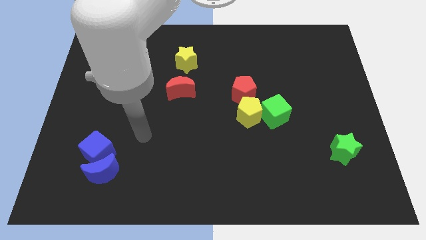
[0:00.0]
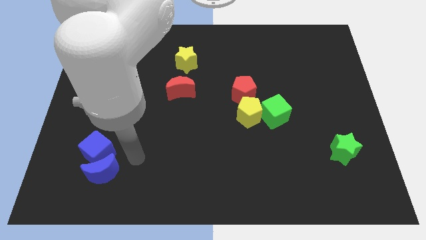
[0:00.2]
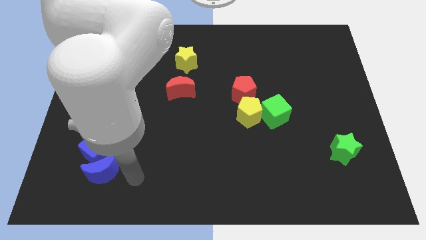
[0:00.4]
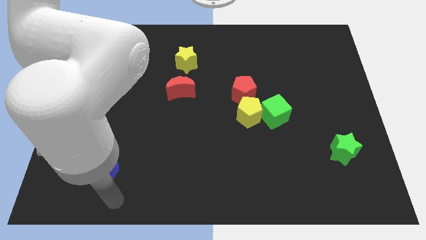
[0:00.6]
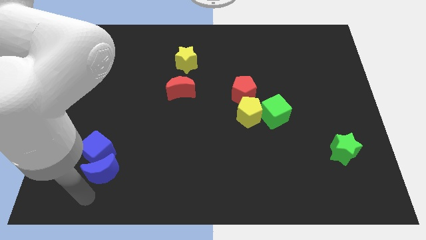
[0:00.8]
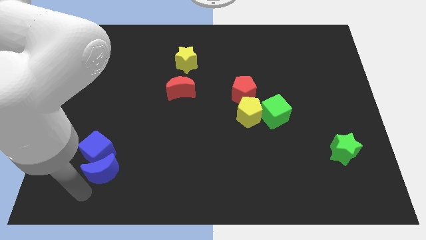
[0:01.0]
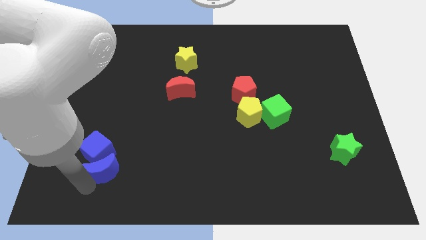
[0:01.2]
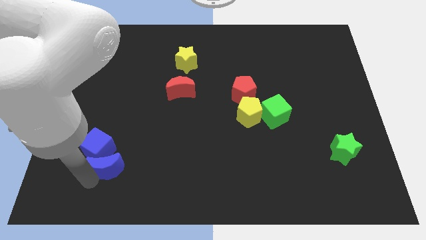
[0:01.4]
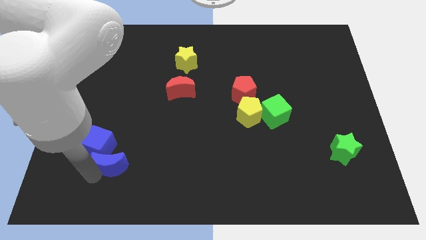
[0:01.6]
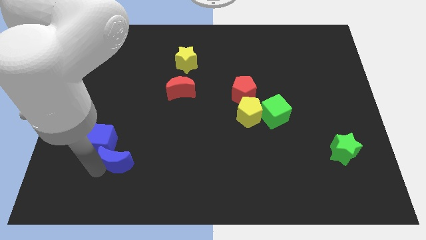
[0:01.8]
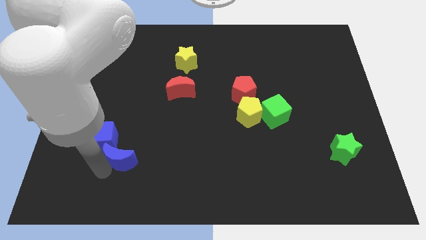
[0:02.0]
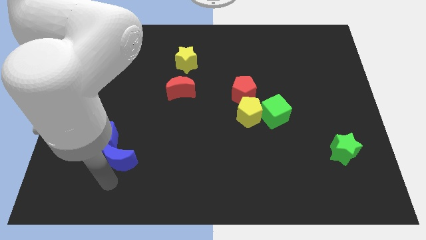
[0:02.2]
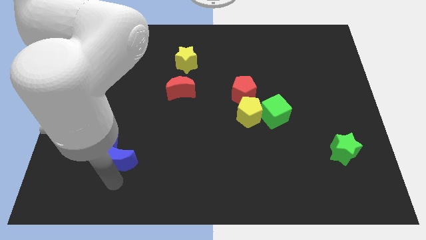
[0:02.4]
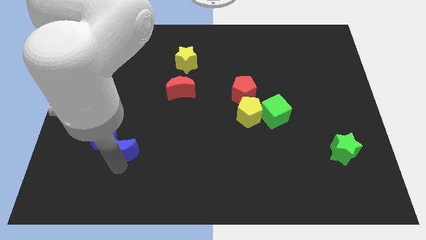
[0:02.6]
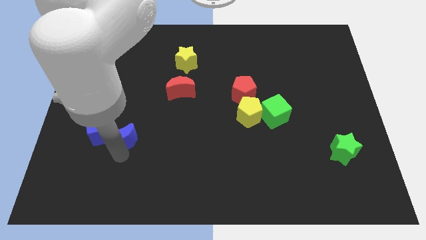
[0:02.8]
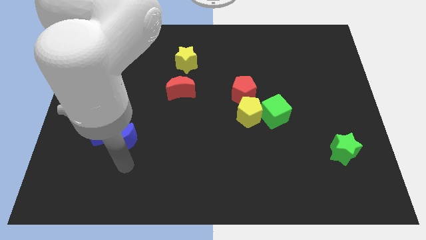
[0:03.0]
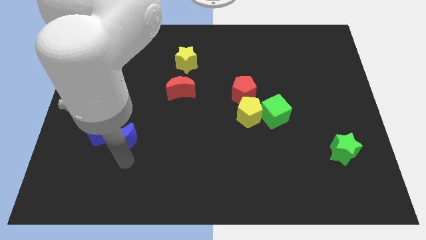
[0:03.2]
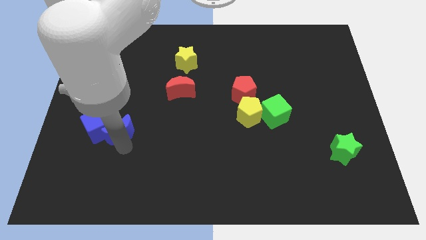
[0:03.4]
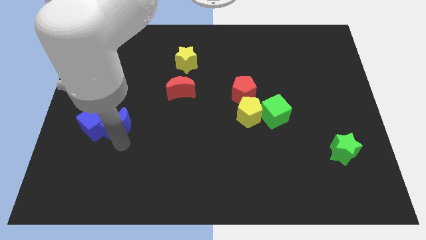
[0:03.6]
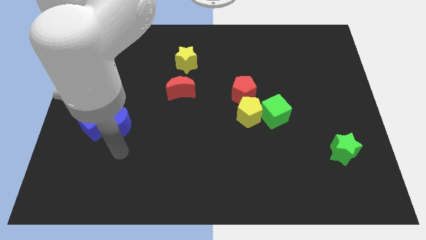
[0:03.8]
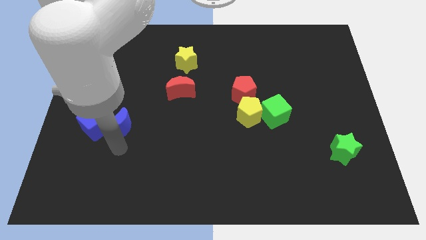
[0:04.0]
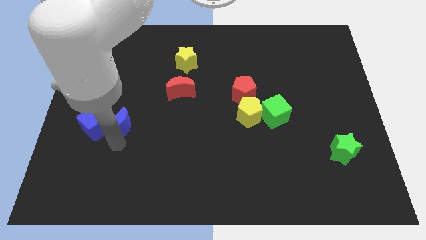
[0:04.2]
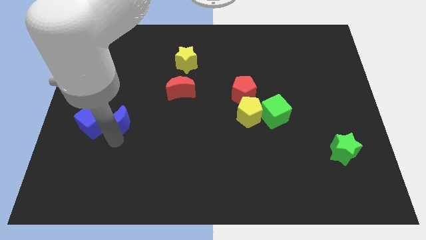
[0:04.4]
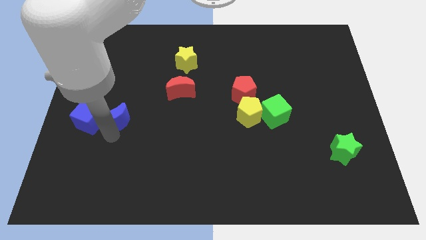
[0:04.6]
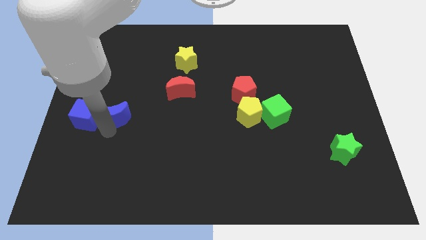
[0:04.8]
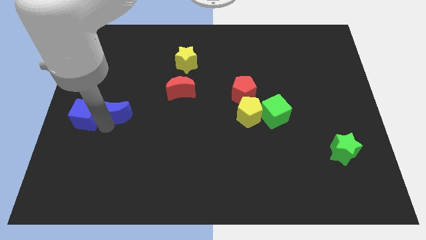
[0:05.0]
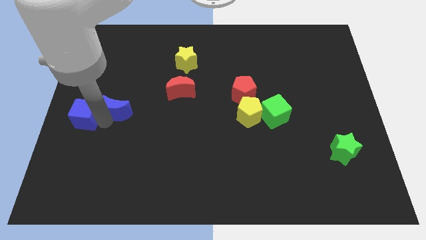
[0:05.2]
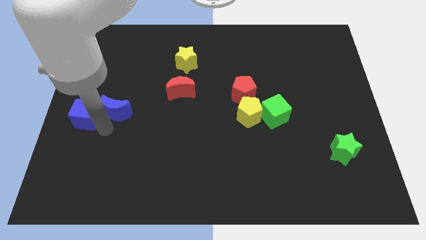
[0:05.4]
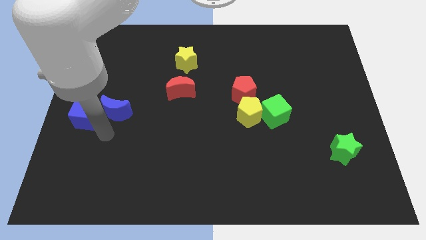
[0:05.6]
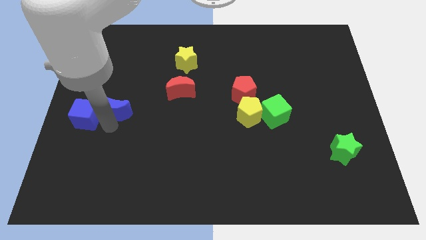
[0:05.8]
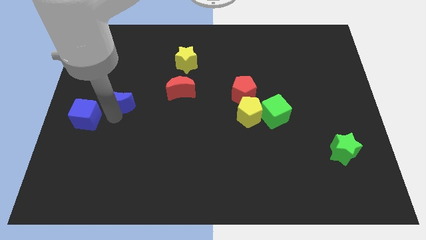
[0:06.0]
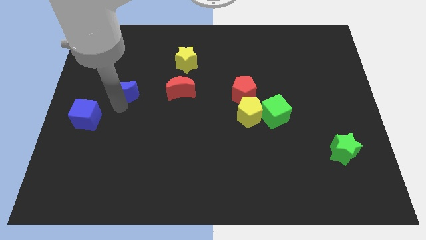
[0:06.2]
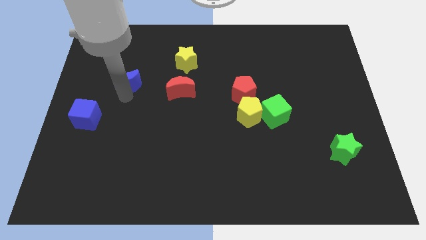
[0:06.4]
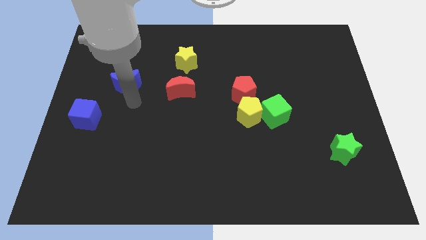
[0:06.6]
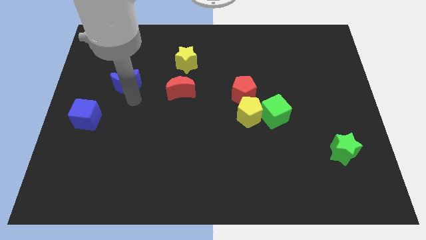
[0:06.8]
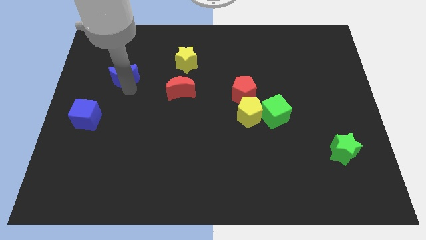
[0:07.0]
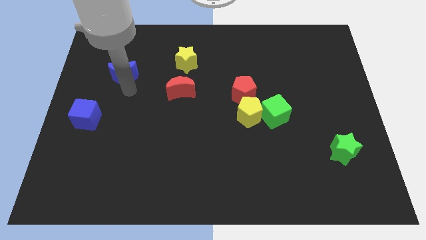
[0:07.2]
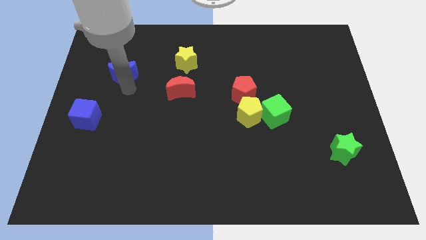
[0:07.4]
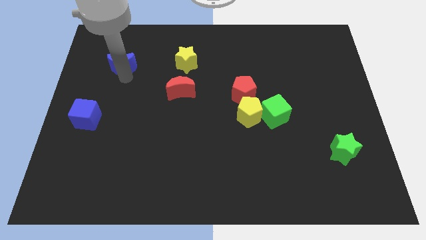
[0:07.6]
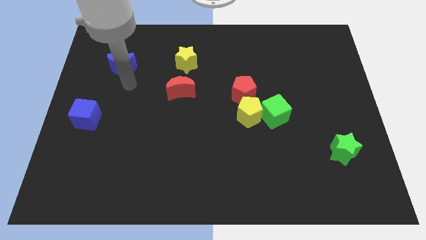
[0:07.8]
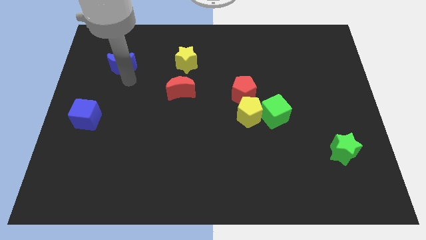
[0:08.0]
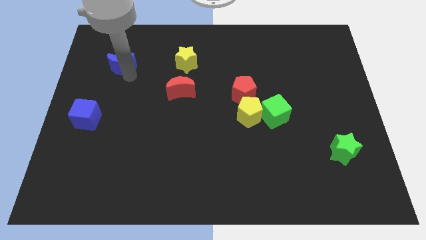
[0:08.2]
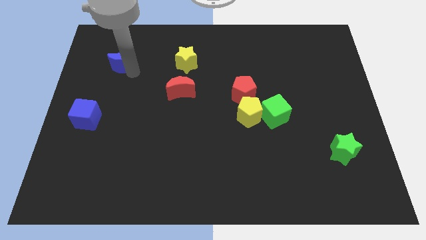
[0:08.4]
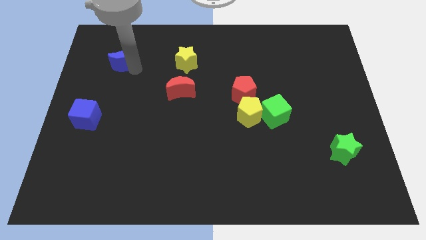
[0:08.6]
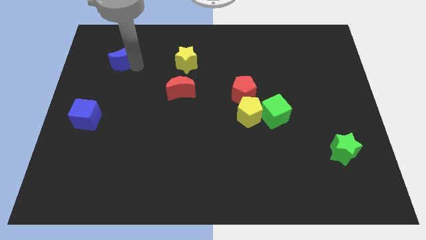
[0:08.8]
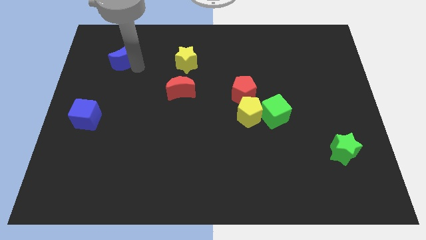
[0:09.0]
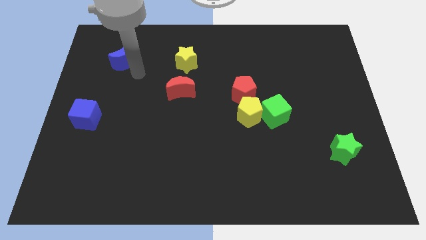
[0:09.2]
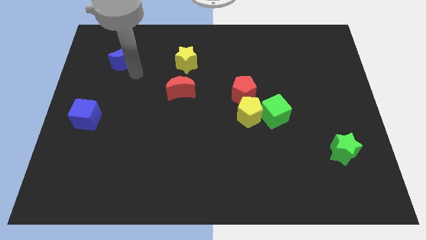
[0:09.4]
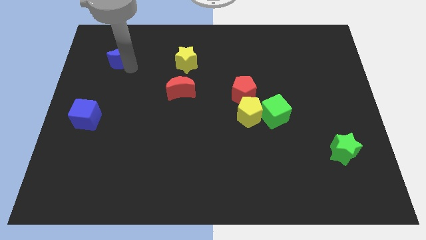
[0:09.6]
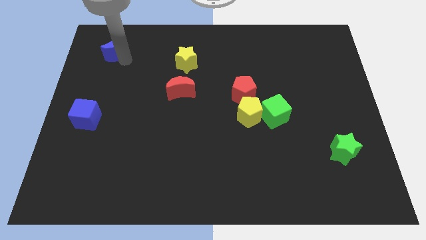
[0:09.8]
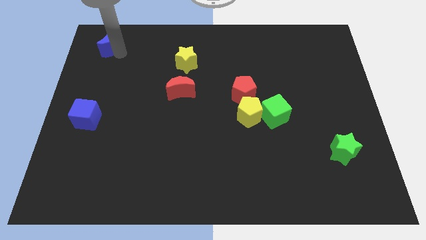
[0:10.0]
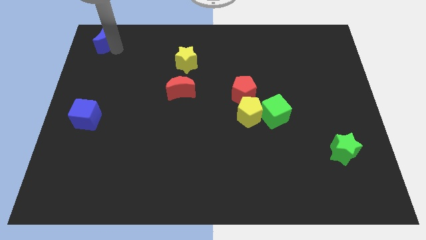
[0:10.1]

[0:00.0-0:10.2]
push the blue moon to the upper left corner

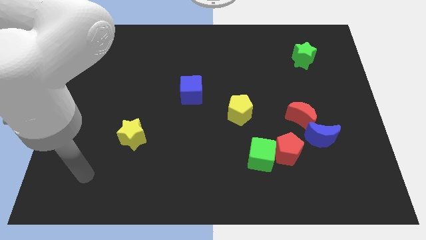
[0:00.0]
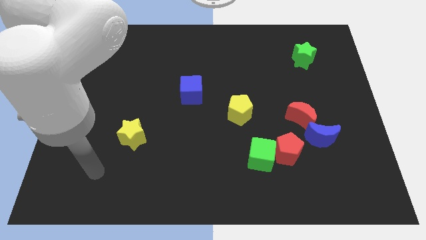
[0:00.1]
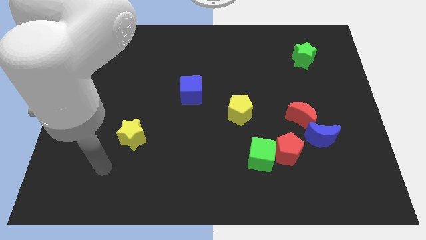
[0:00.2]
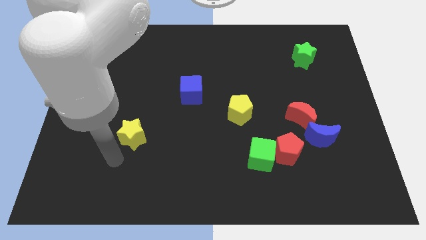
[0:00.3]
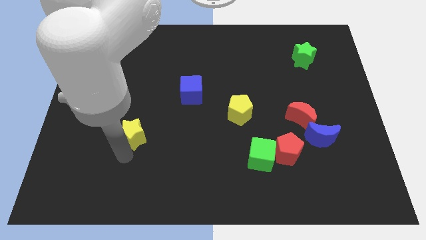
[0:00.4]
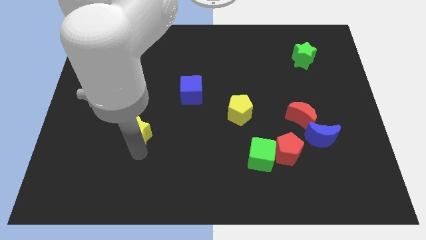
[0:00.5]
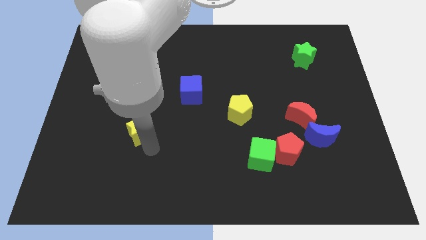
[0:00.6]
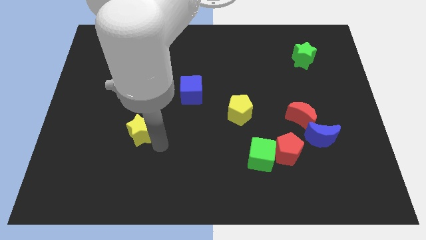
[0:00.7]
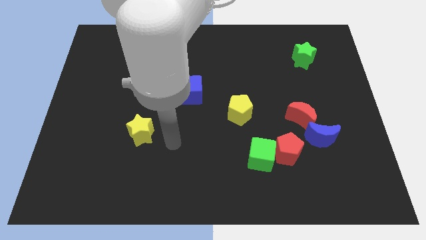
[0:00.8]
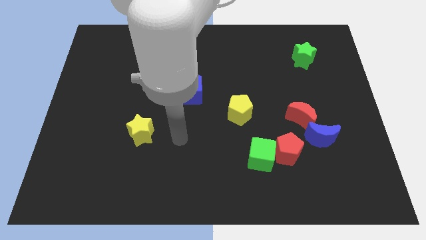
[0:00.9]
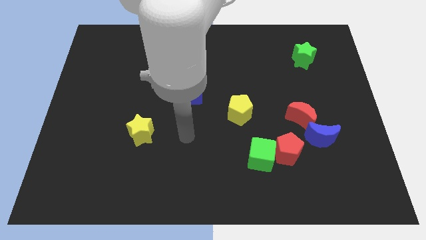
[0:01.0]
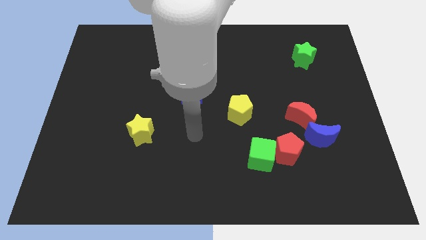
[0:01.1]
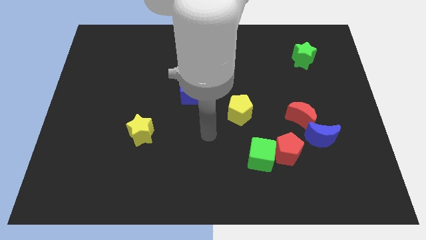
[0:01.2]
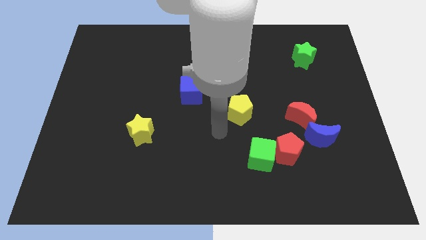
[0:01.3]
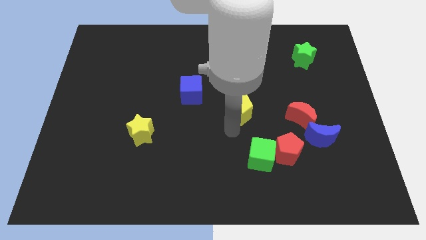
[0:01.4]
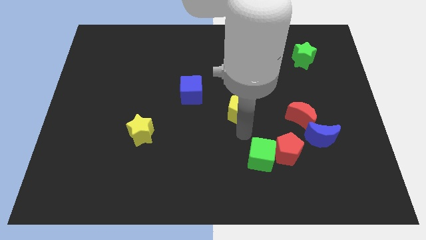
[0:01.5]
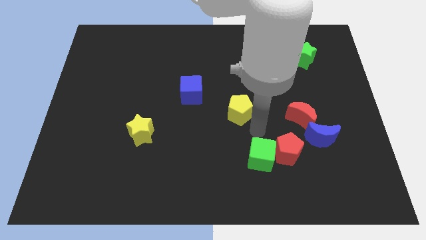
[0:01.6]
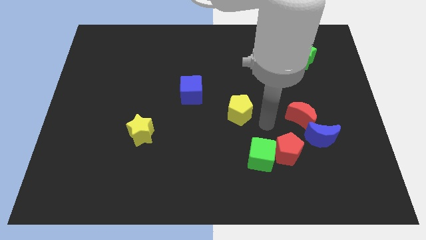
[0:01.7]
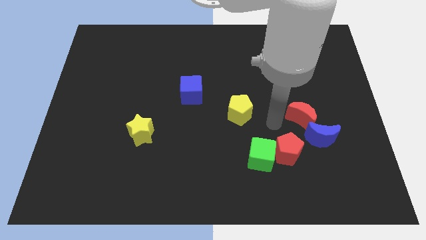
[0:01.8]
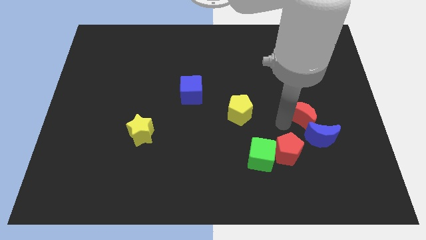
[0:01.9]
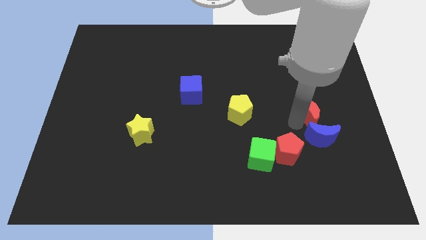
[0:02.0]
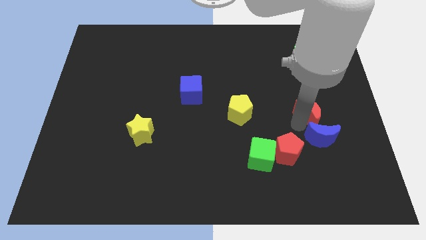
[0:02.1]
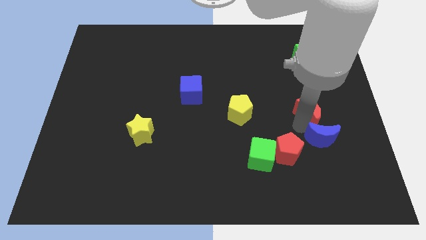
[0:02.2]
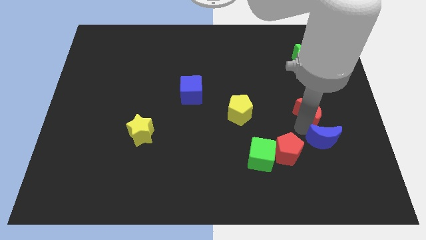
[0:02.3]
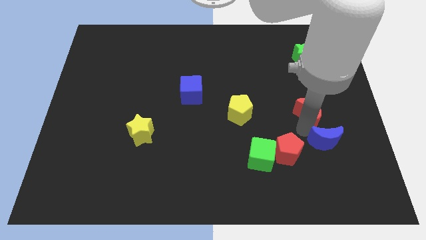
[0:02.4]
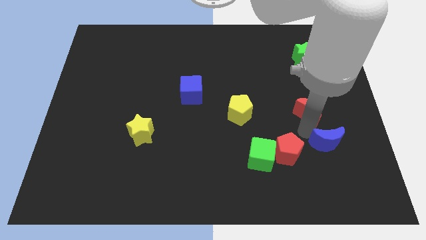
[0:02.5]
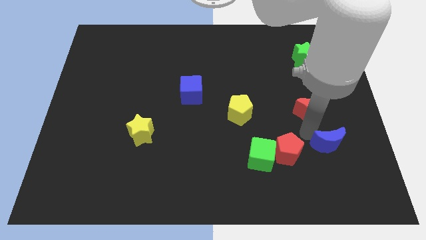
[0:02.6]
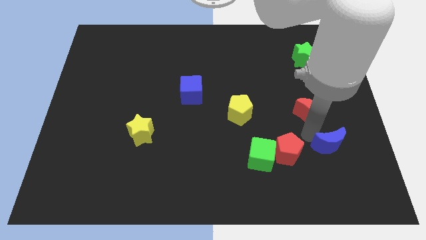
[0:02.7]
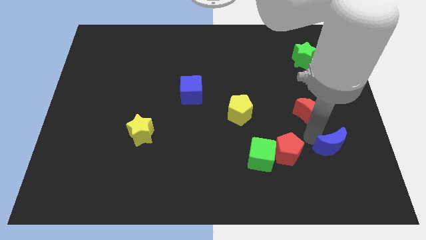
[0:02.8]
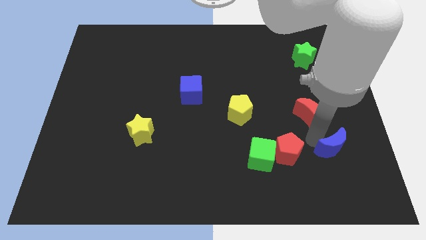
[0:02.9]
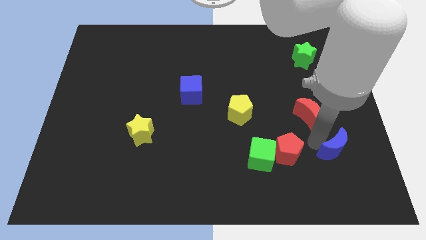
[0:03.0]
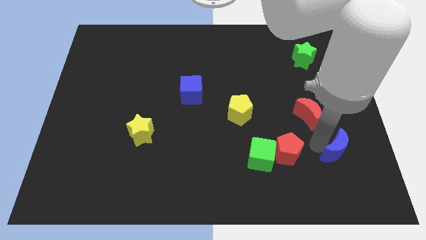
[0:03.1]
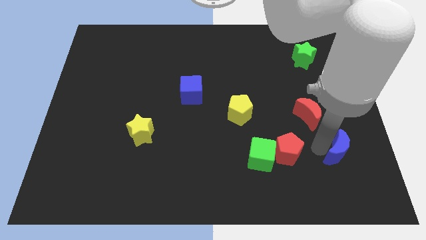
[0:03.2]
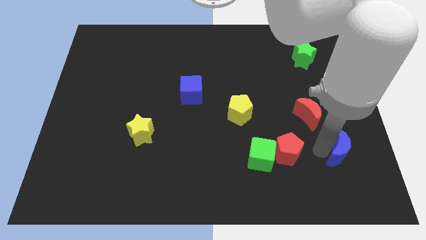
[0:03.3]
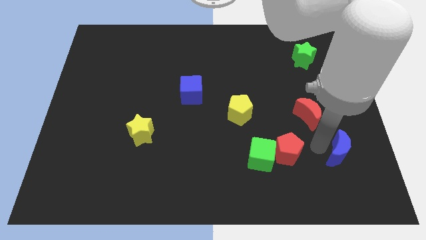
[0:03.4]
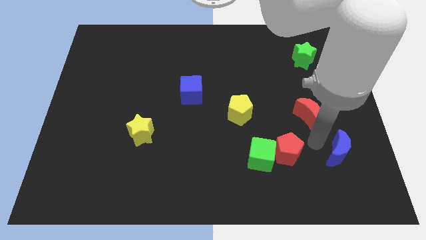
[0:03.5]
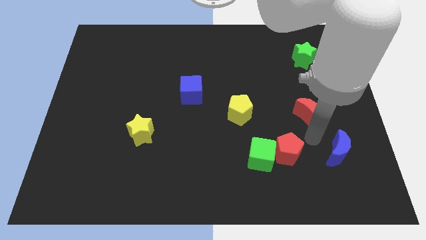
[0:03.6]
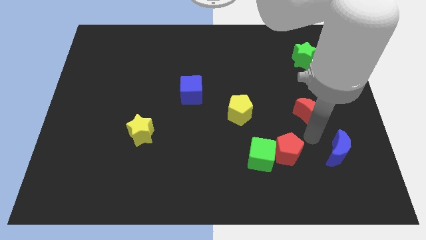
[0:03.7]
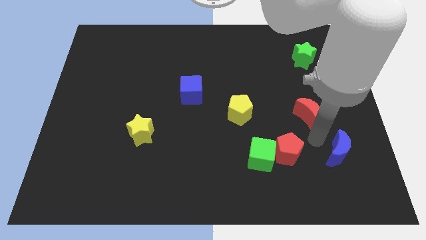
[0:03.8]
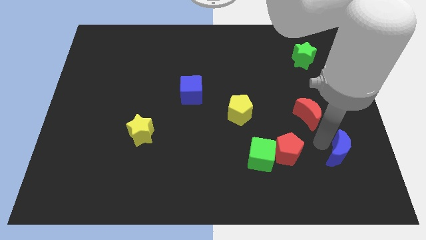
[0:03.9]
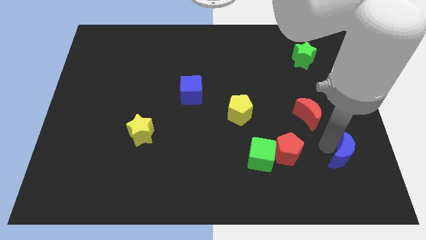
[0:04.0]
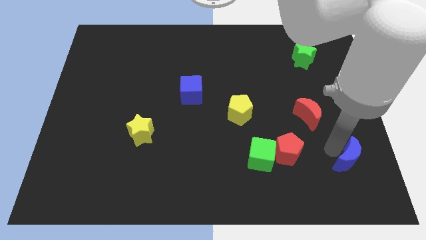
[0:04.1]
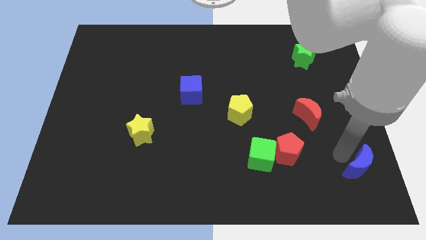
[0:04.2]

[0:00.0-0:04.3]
put the blue moon to the bottom right
